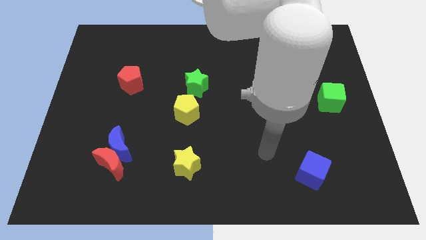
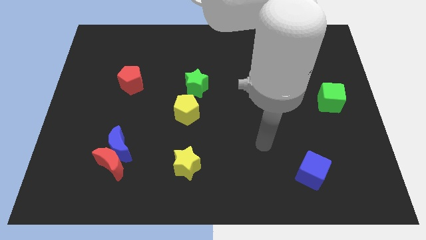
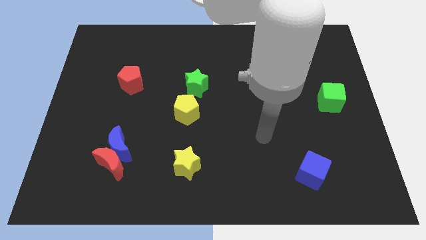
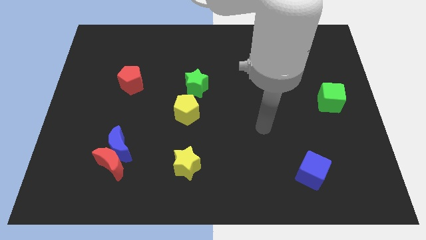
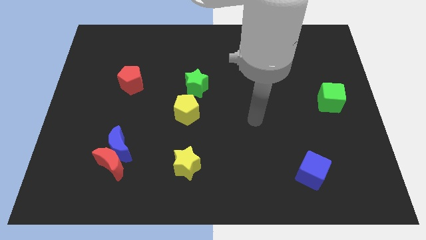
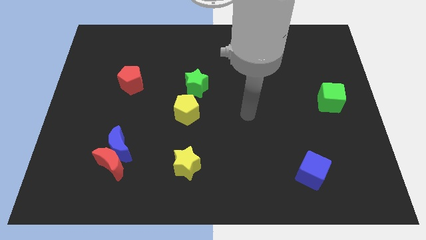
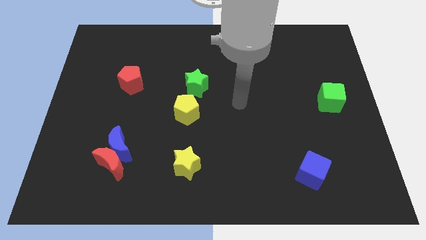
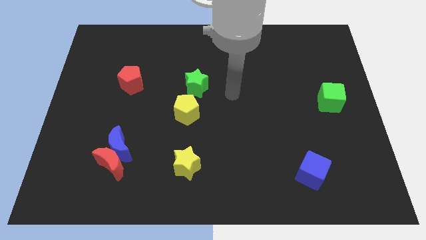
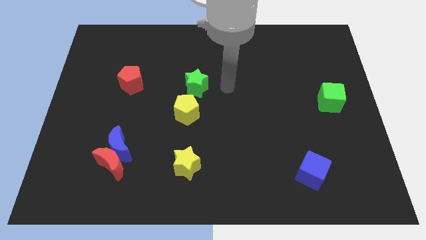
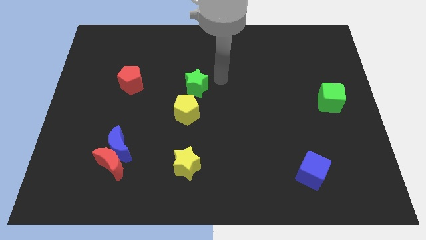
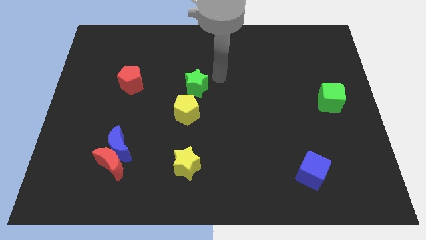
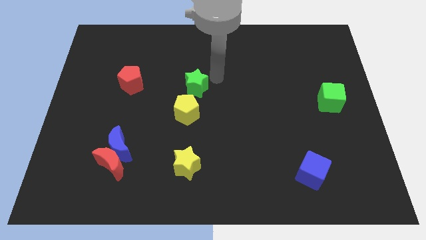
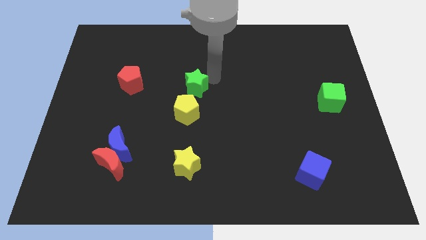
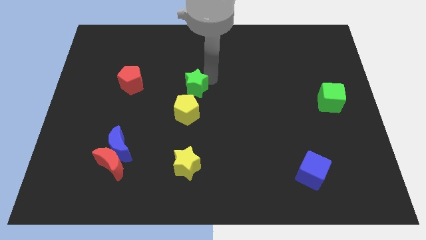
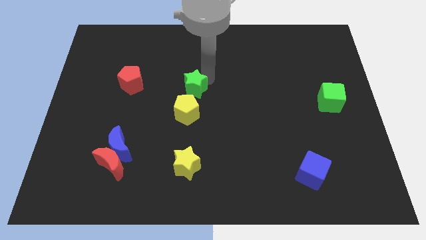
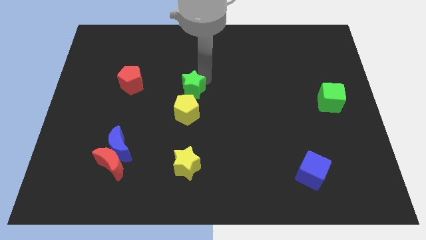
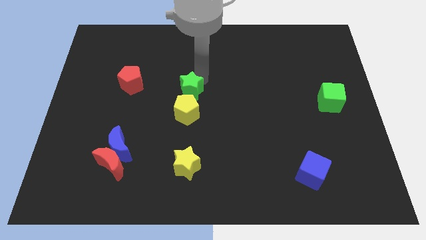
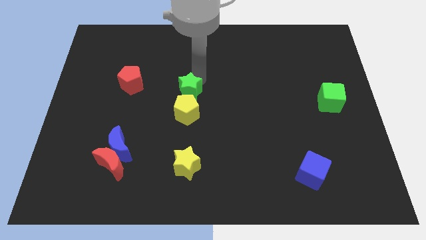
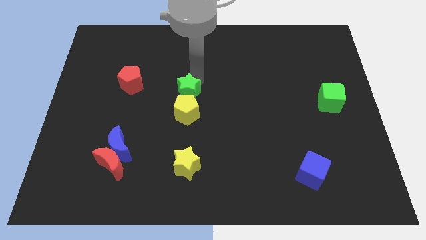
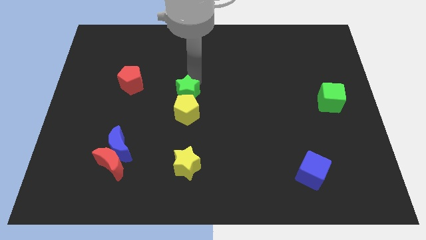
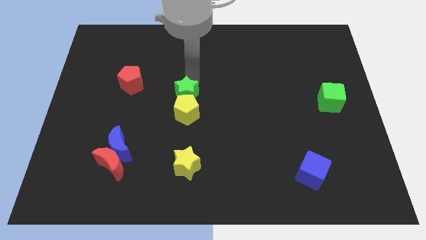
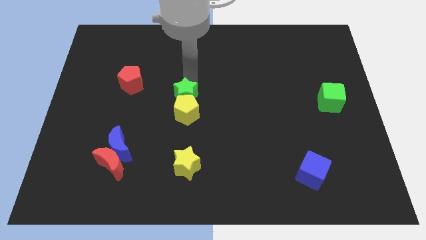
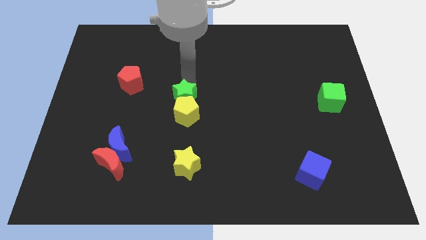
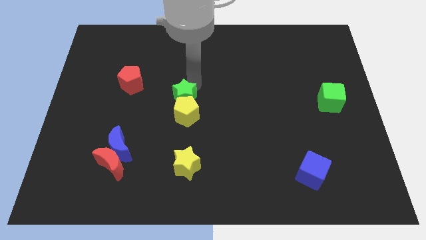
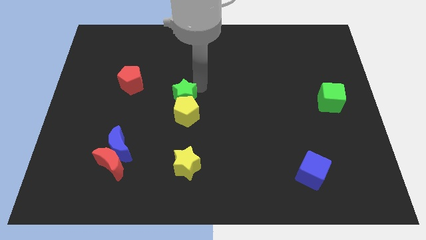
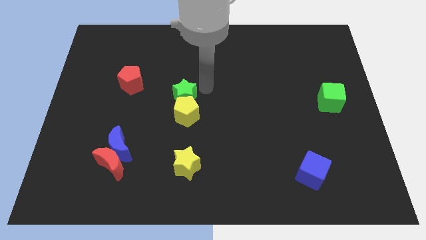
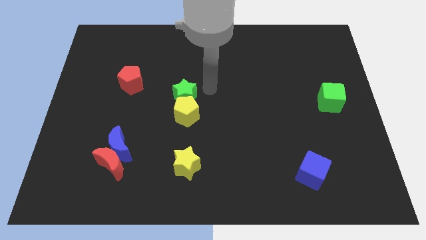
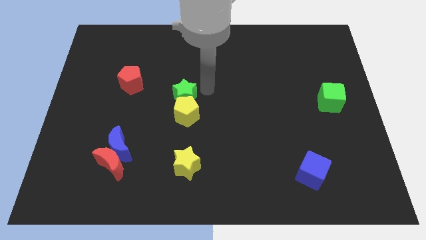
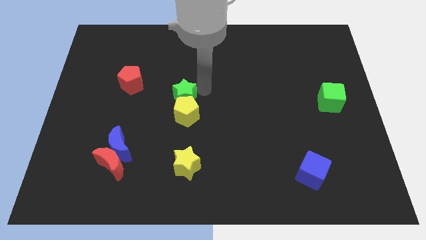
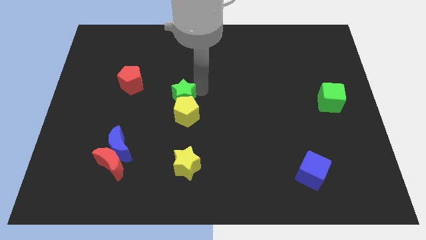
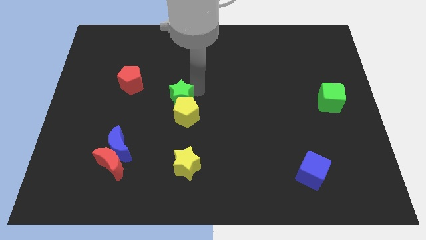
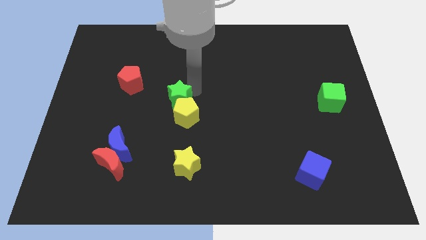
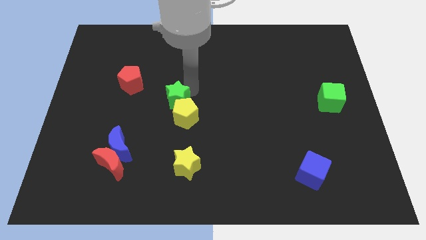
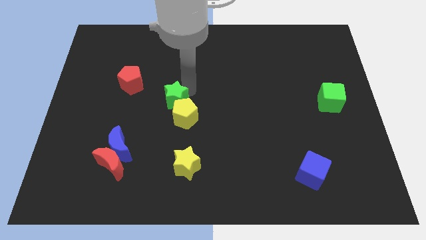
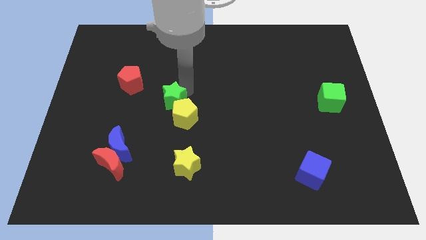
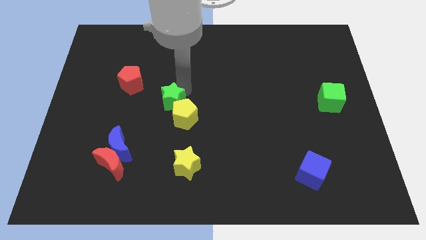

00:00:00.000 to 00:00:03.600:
move the green star a bit down and then to the left

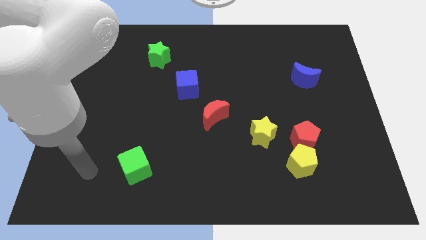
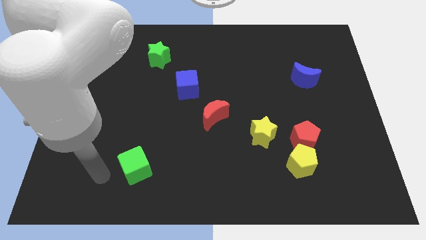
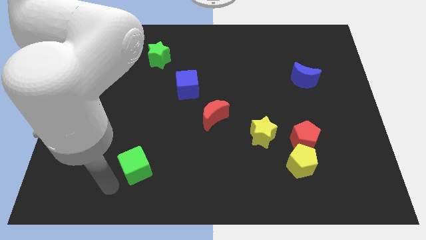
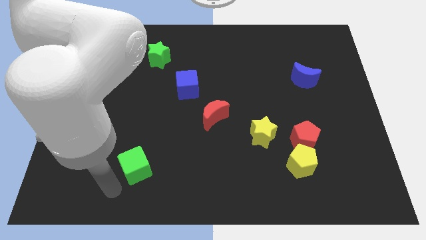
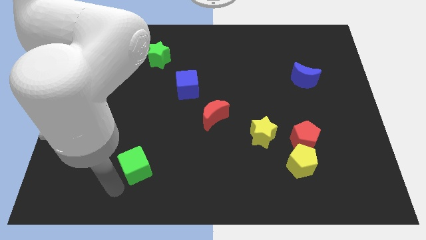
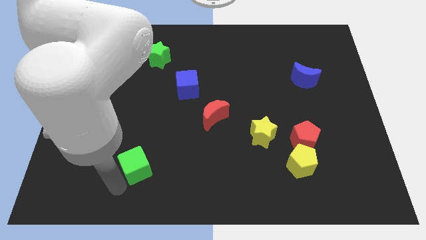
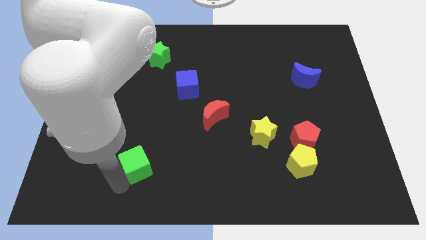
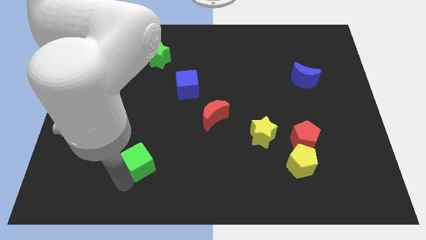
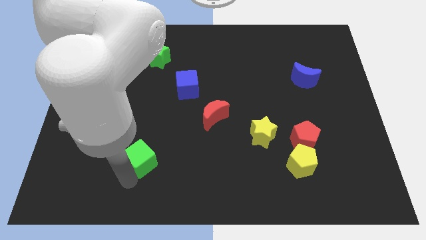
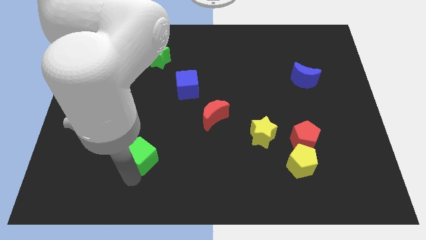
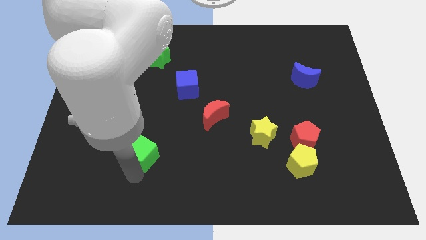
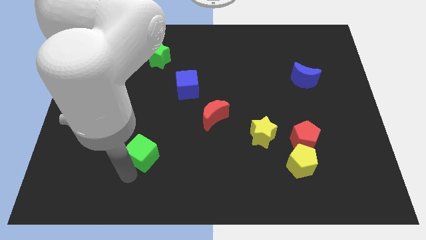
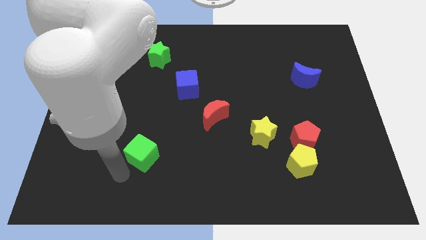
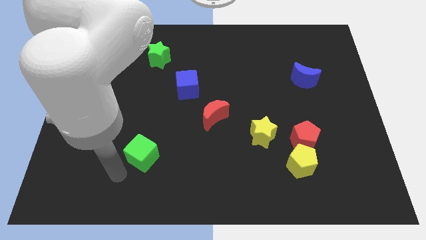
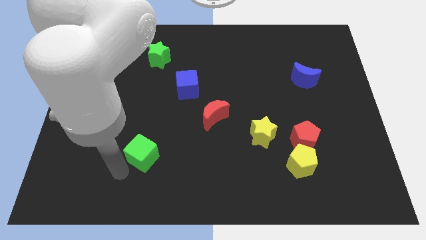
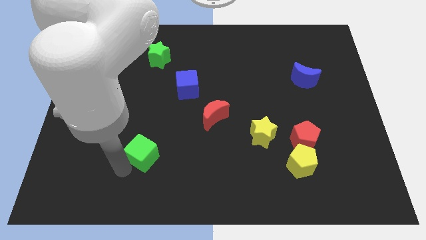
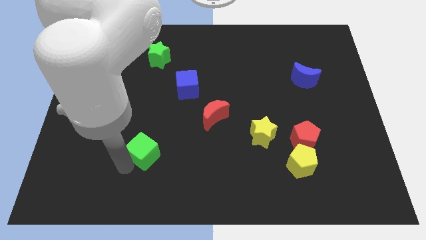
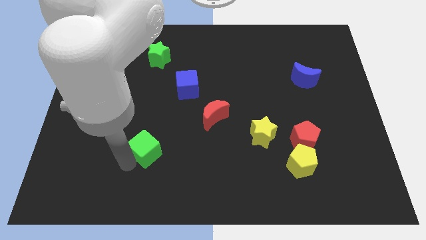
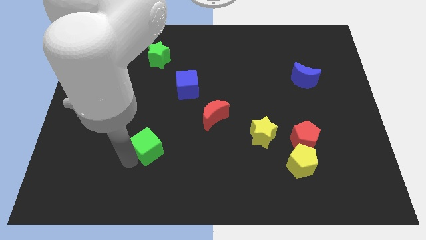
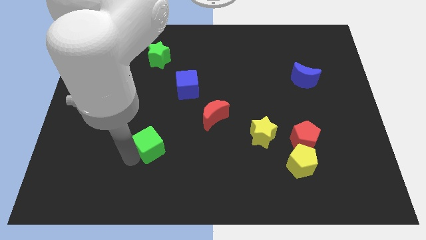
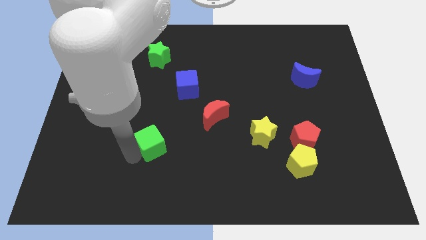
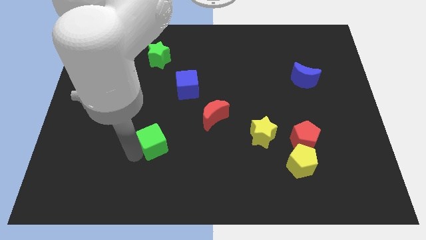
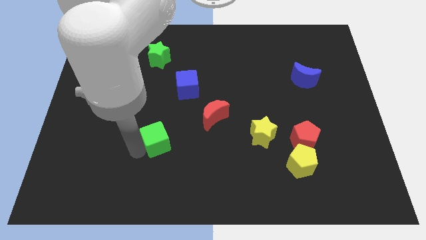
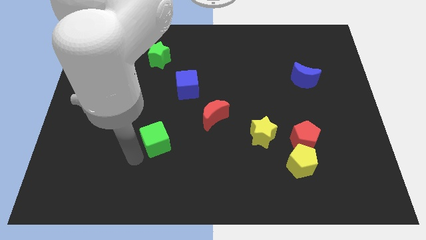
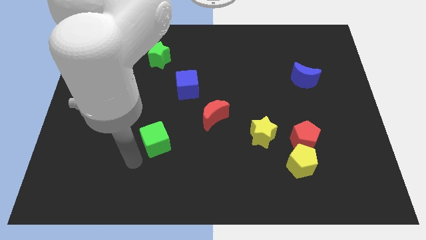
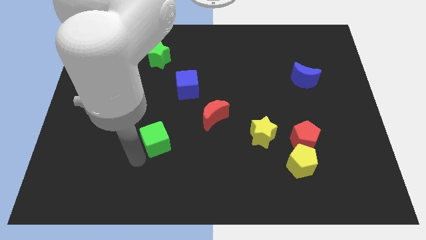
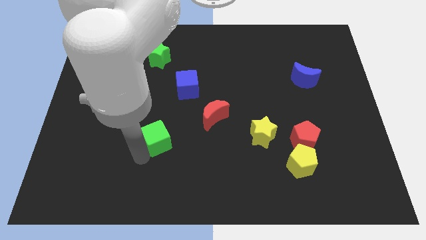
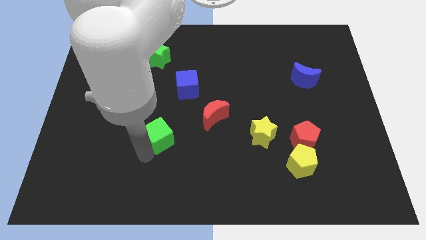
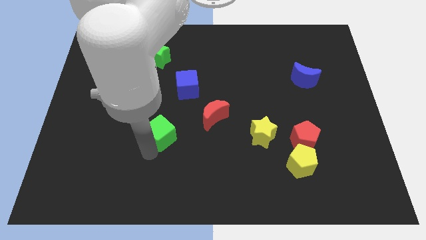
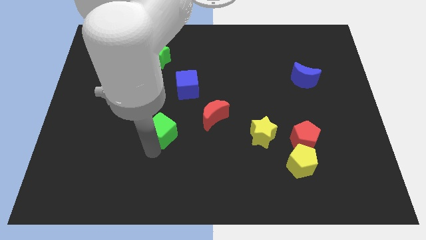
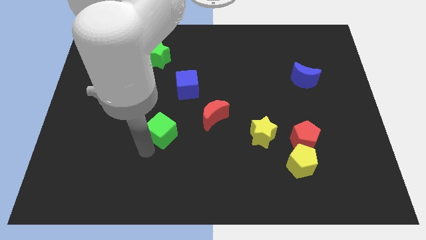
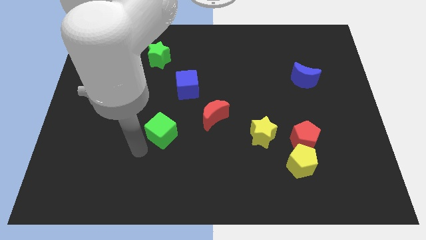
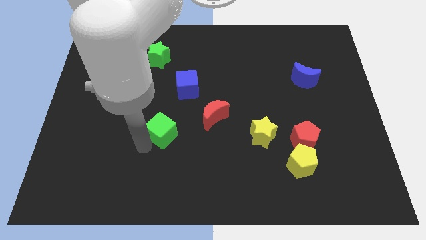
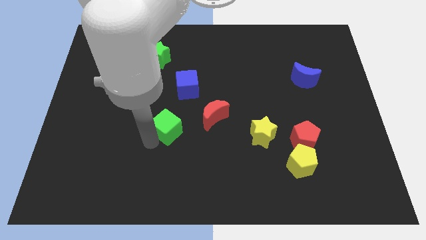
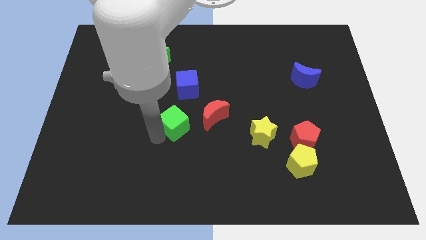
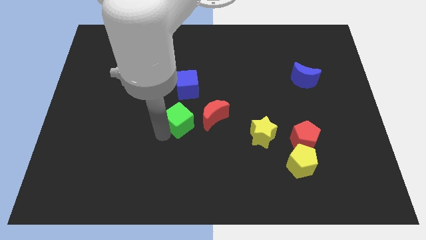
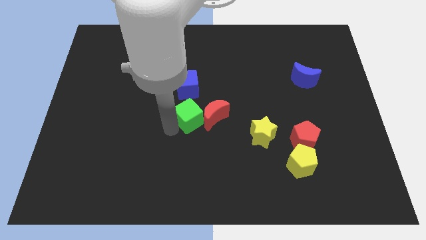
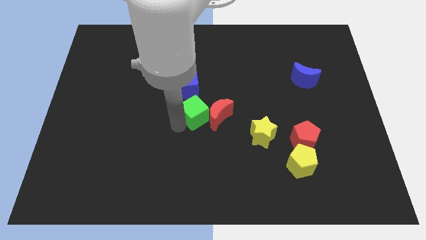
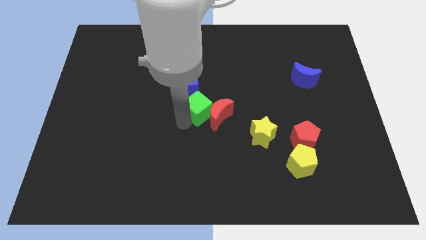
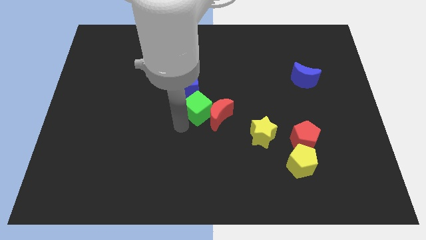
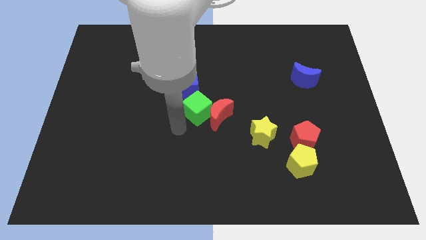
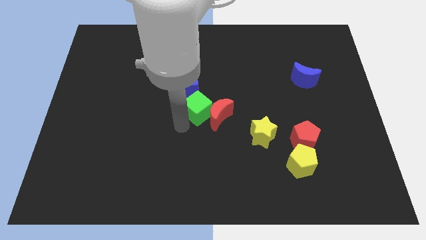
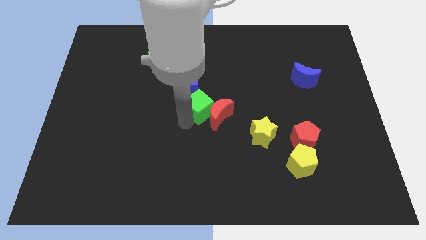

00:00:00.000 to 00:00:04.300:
move the green cube diagonally upwards and right

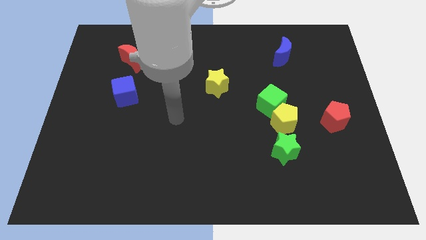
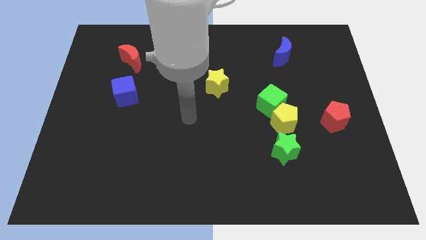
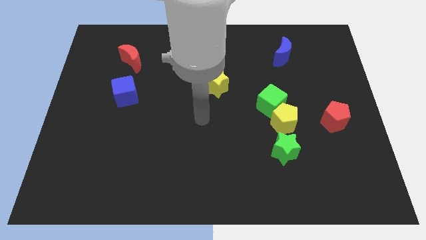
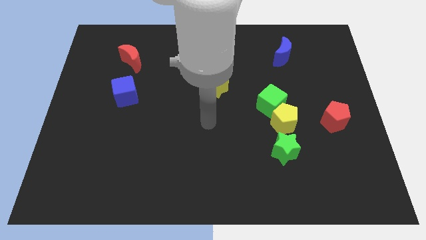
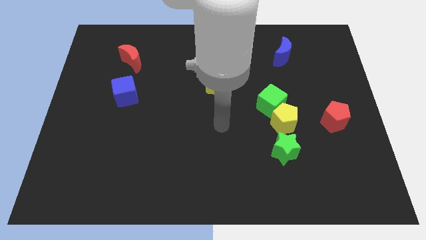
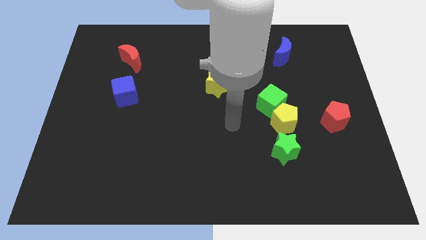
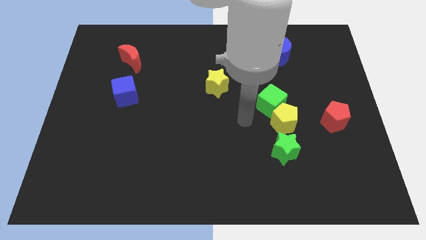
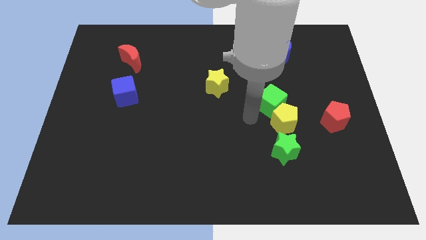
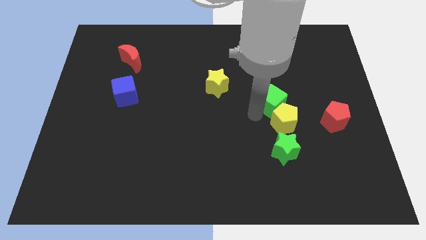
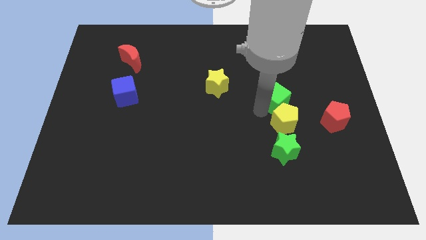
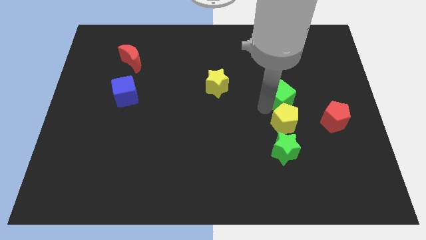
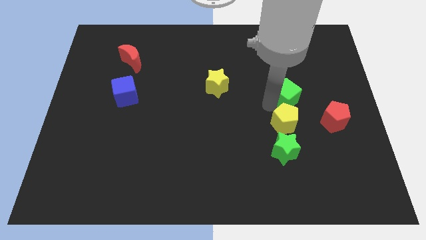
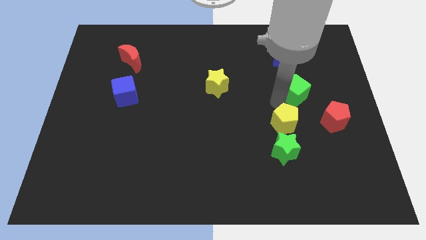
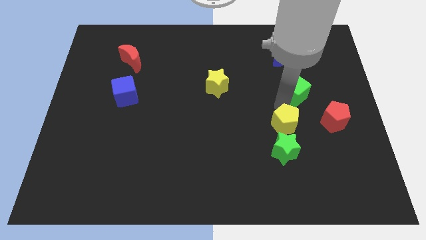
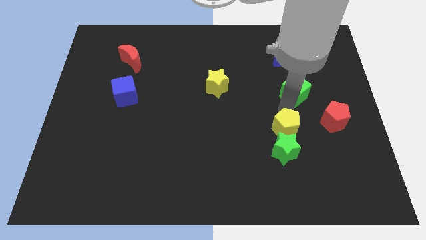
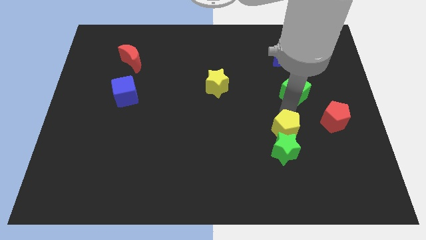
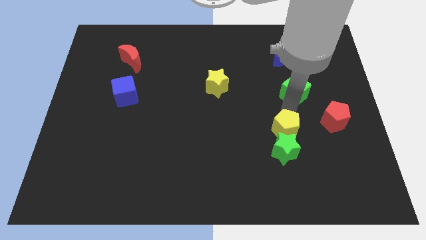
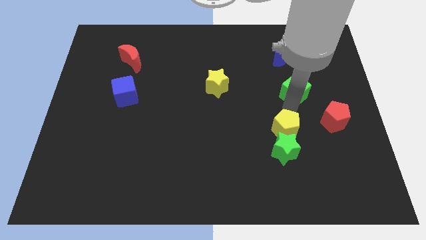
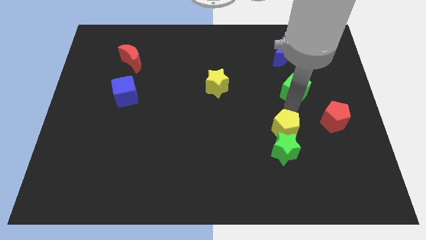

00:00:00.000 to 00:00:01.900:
slightly slide the green cube up and then right
